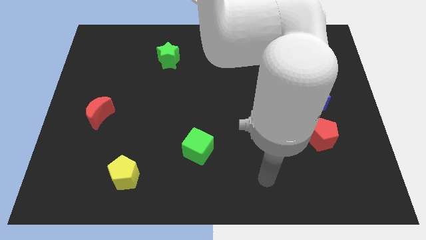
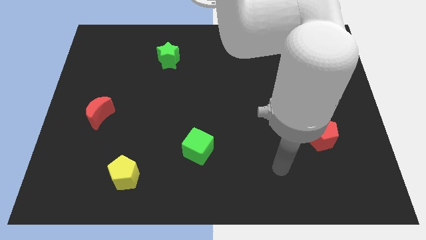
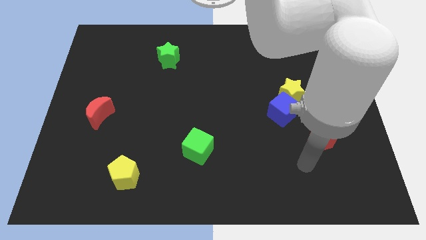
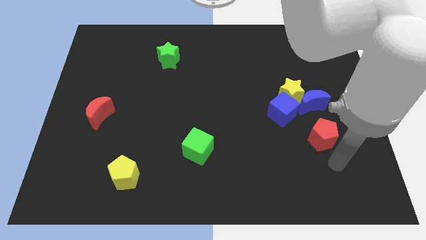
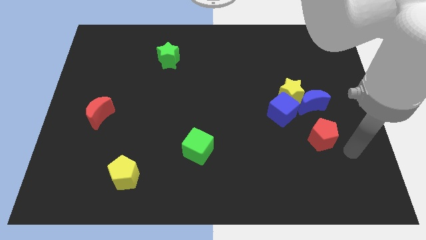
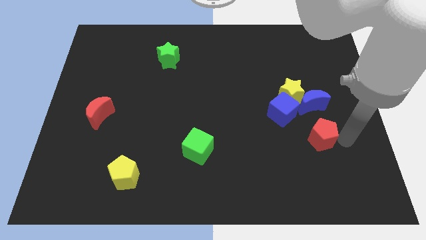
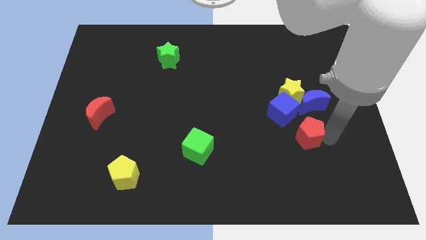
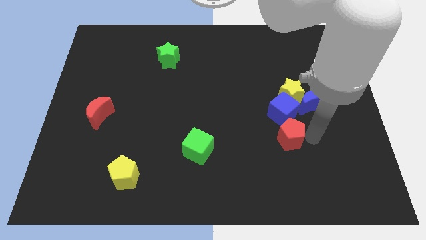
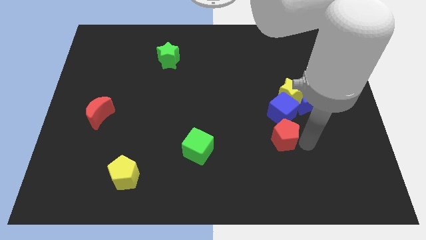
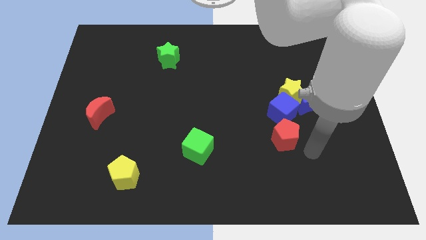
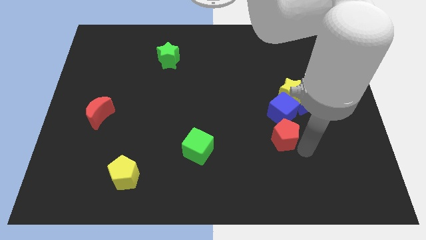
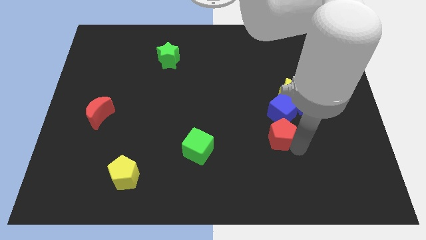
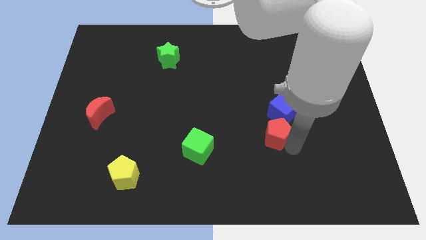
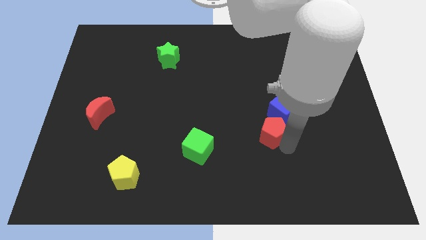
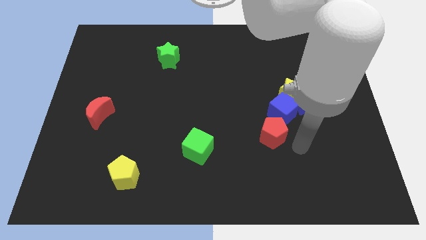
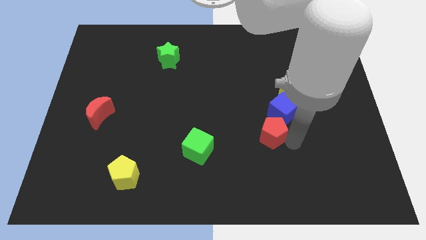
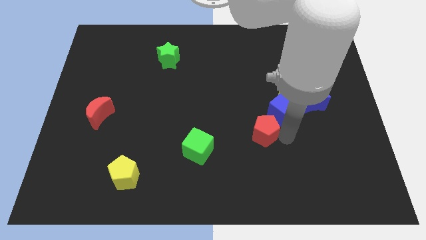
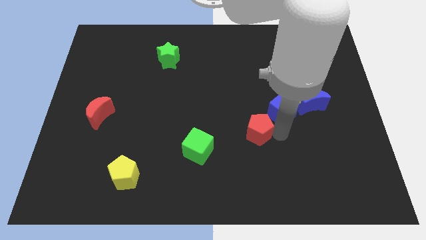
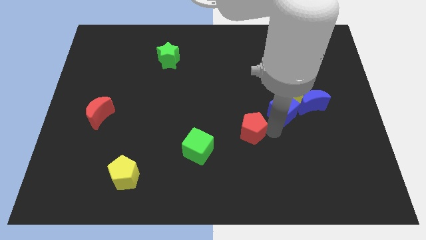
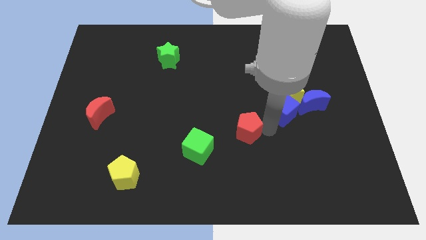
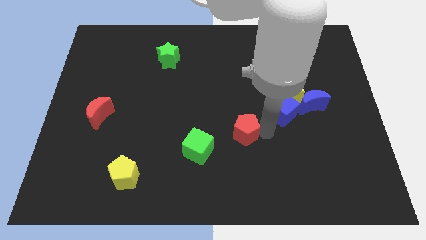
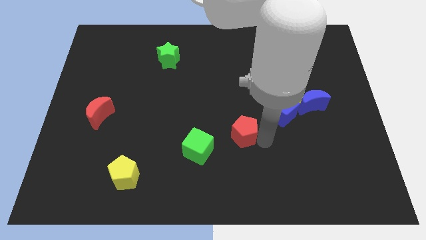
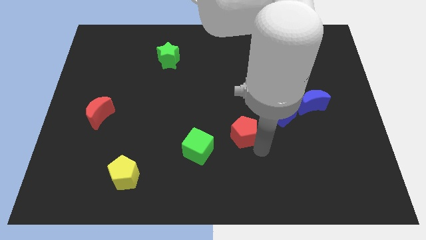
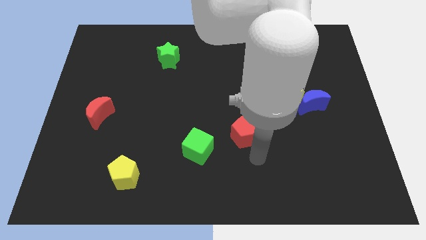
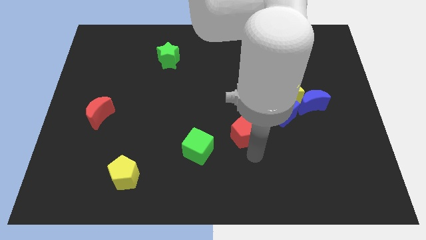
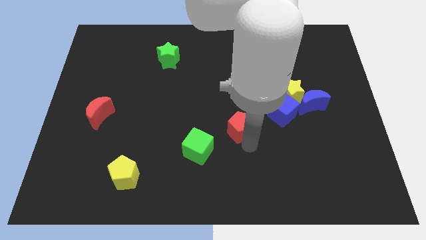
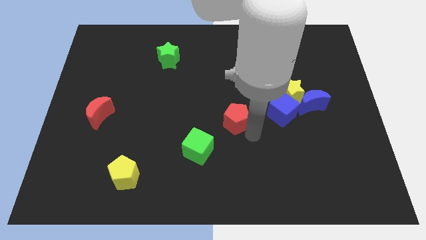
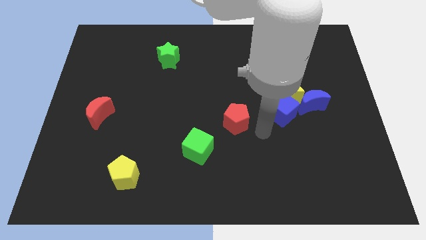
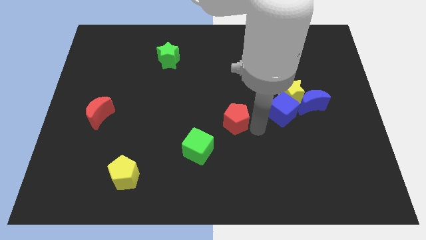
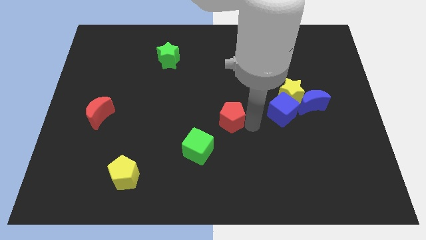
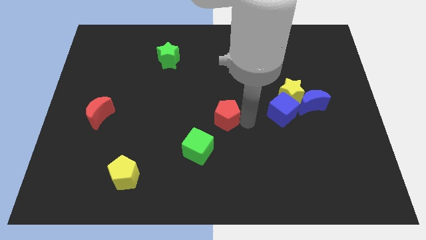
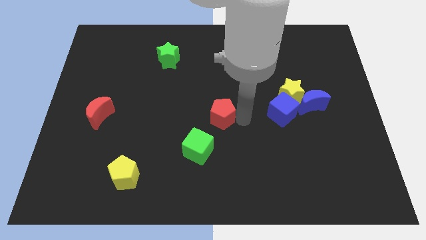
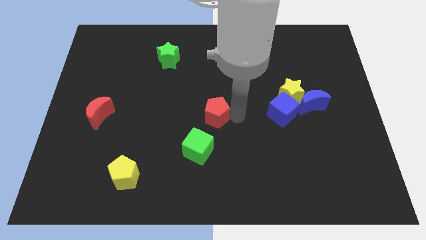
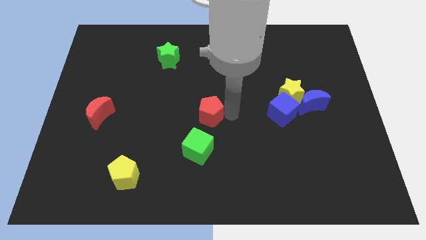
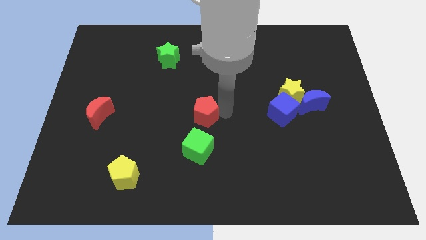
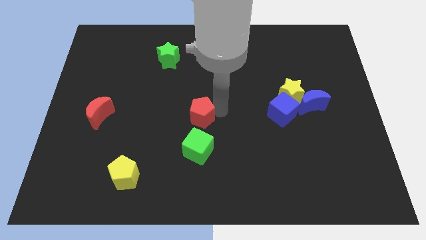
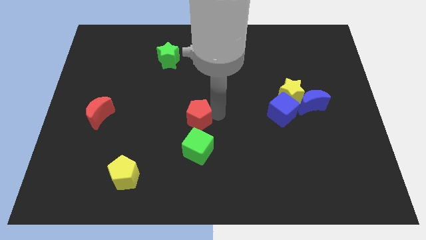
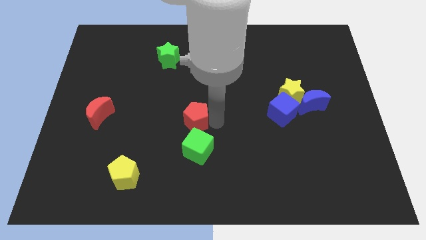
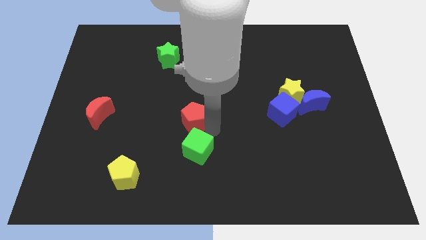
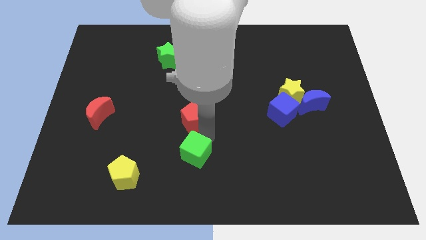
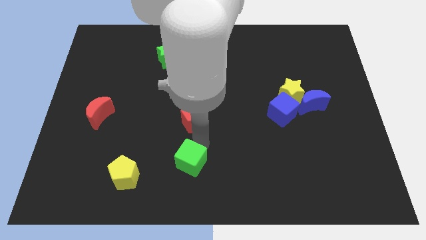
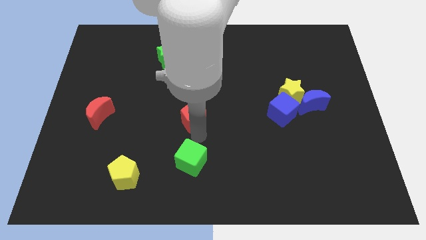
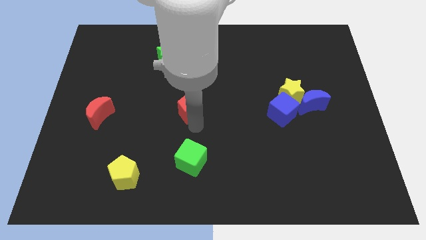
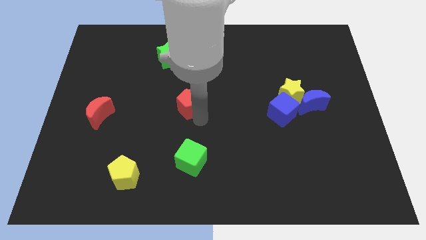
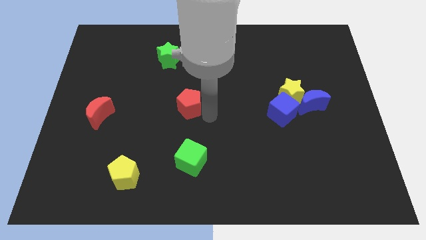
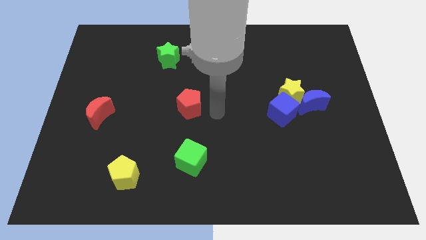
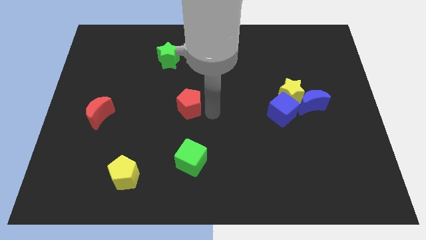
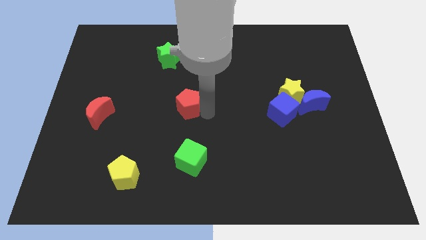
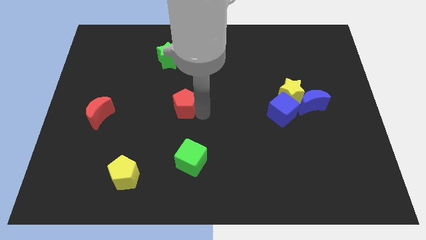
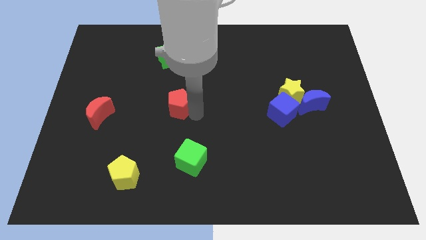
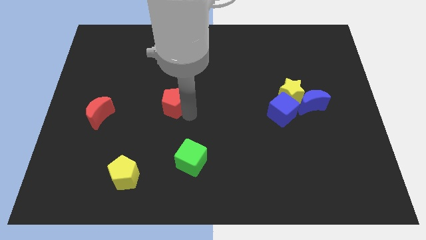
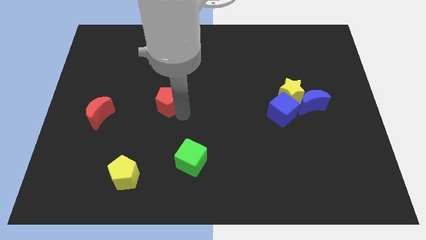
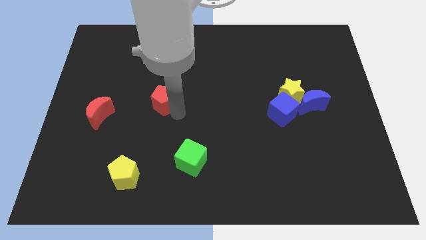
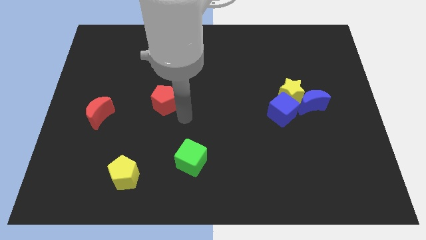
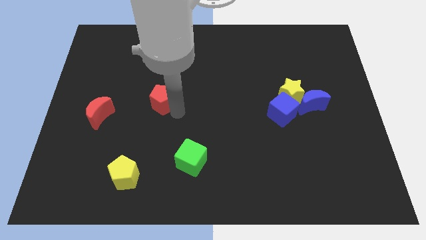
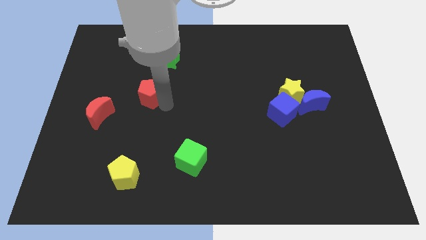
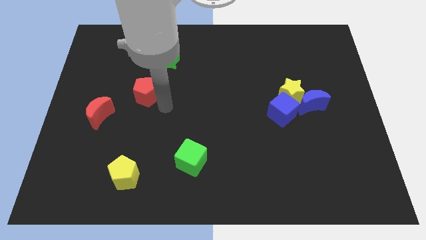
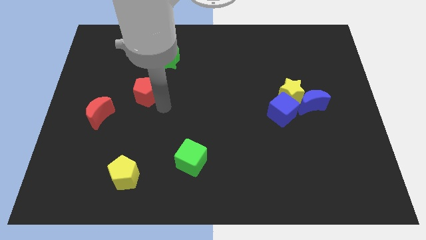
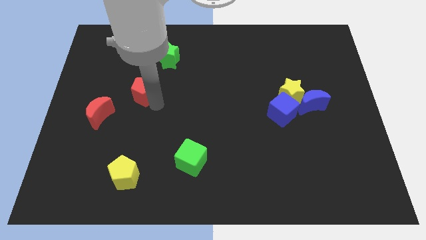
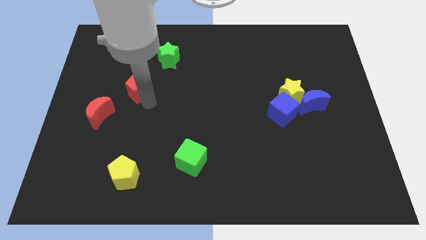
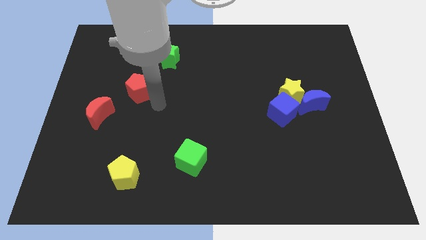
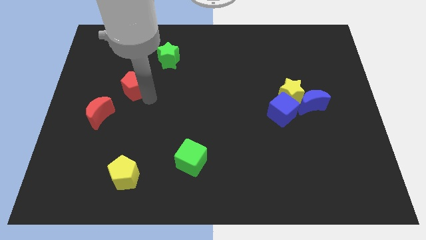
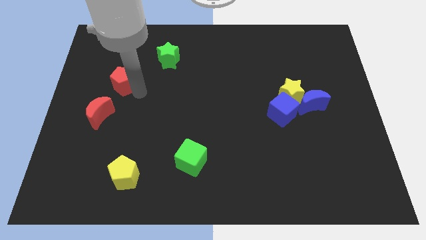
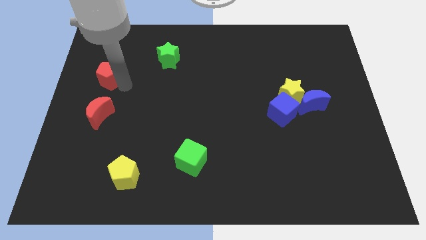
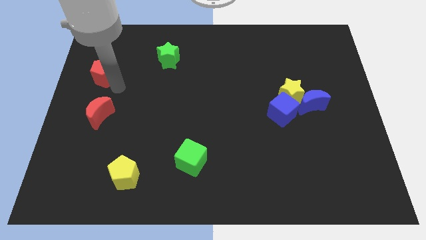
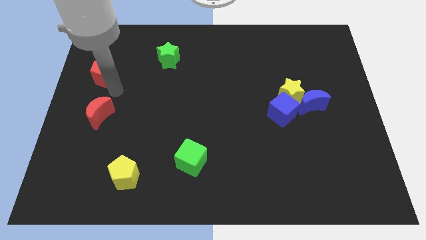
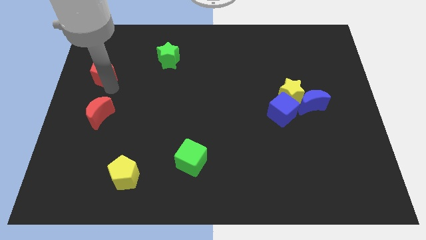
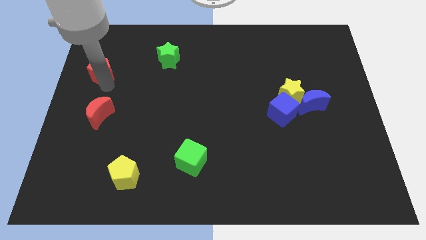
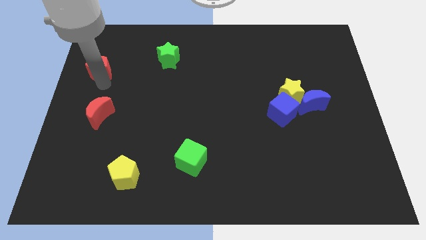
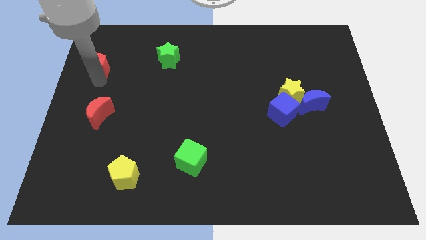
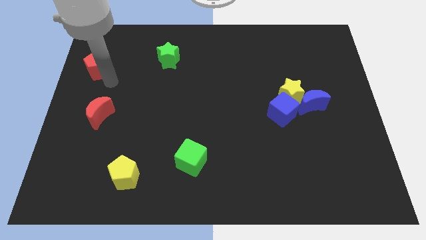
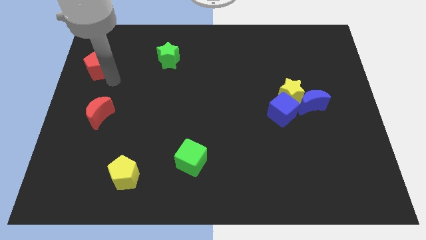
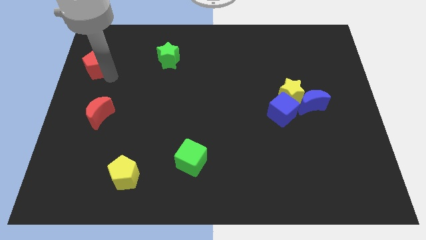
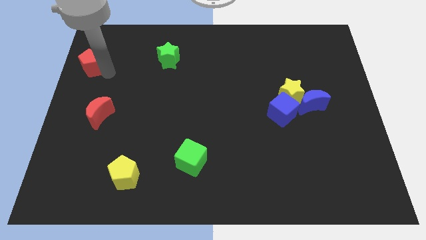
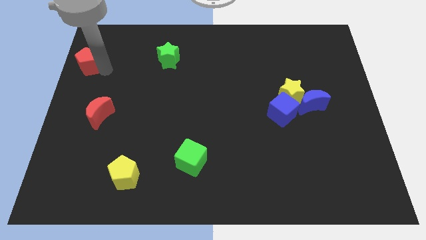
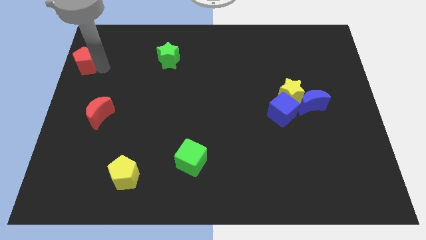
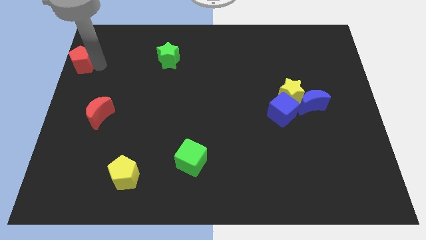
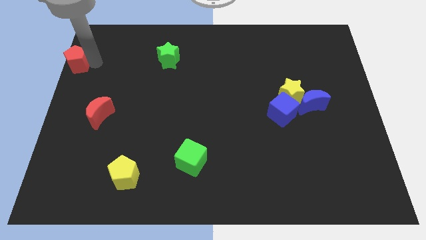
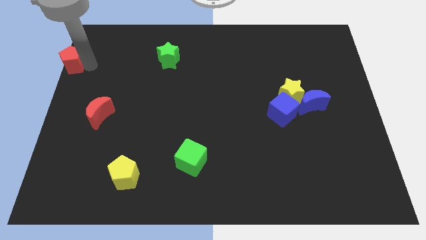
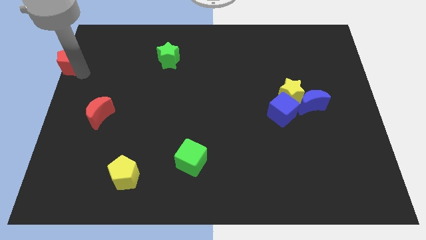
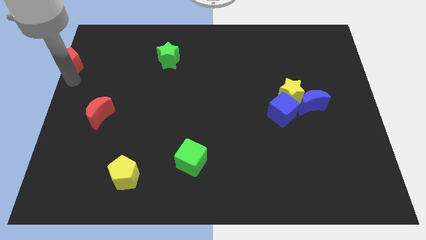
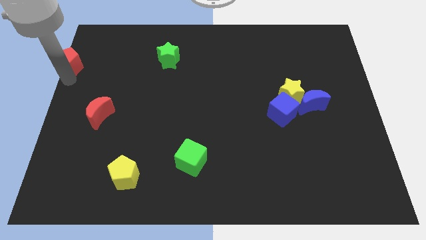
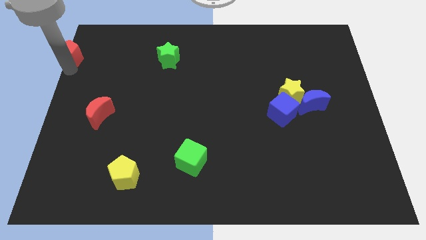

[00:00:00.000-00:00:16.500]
move the red pentagon to the top left of the board
